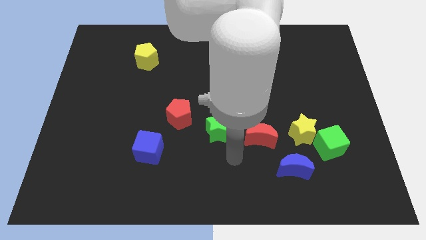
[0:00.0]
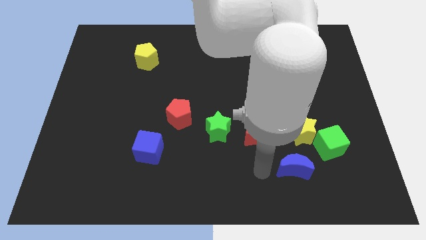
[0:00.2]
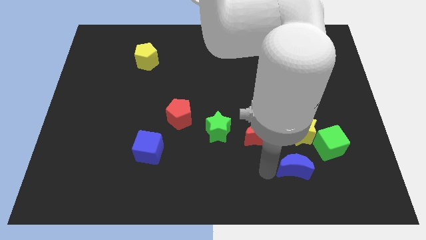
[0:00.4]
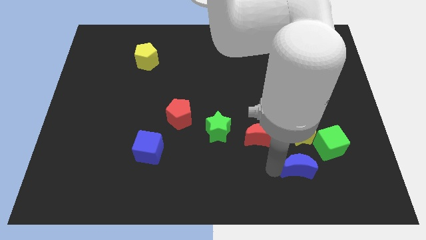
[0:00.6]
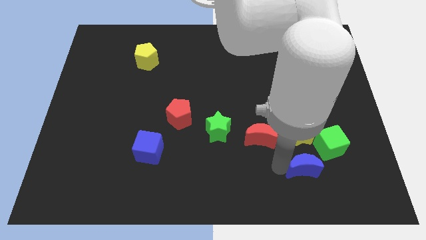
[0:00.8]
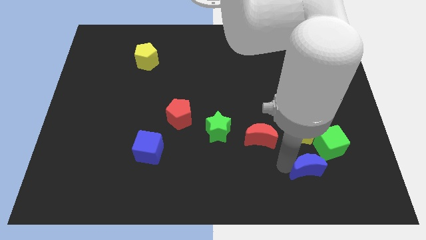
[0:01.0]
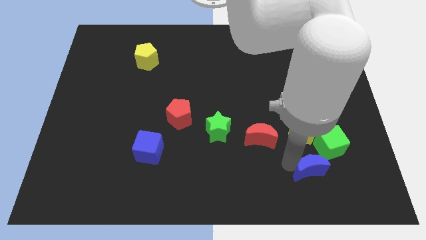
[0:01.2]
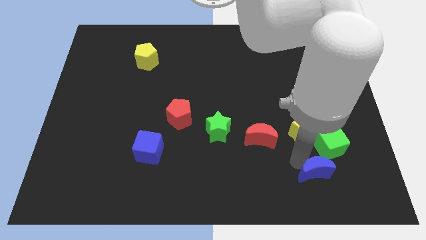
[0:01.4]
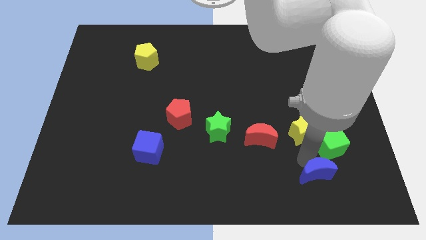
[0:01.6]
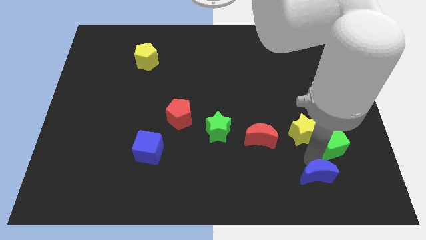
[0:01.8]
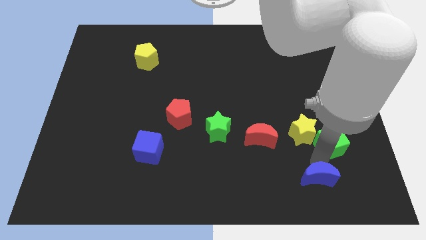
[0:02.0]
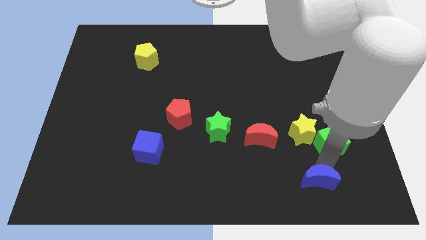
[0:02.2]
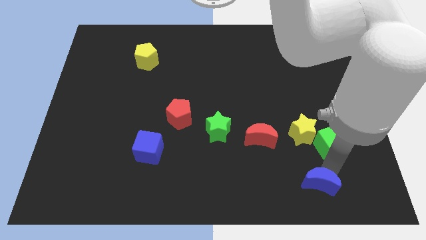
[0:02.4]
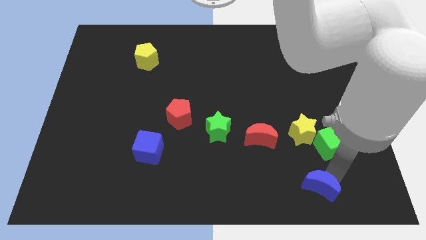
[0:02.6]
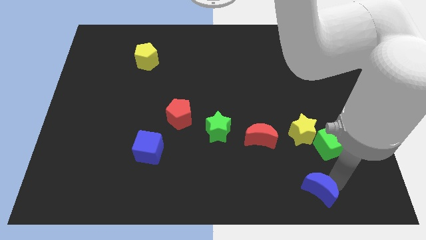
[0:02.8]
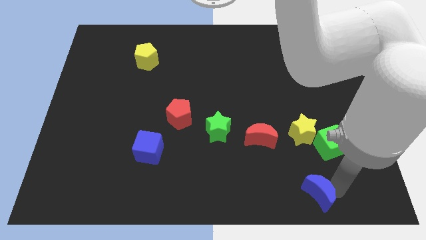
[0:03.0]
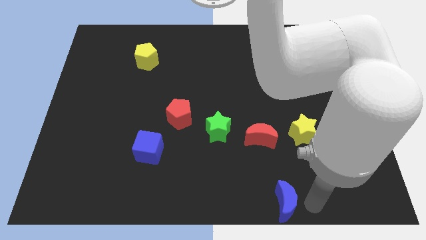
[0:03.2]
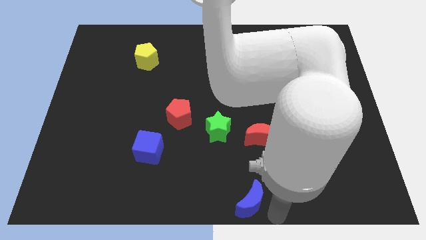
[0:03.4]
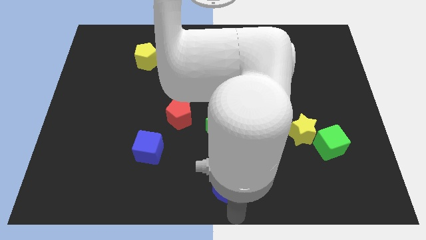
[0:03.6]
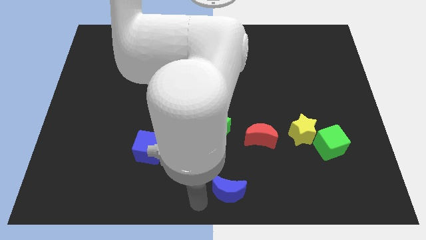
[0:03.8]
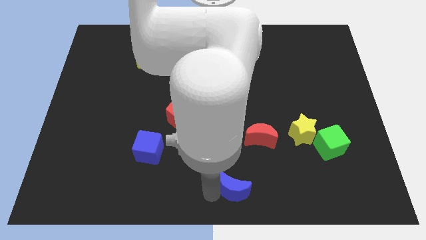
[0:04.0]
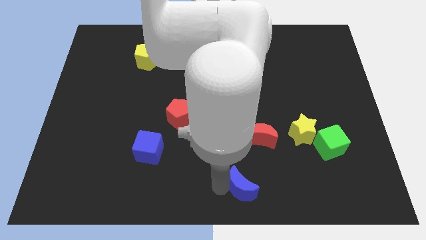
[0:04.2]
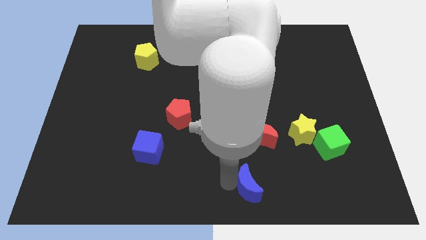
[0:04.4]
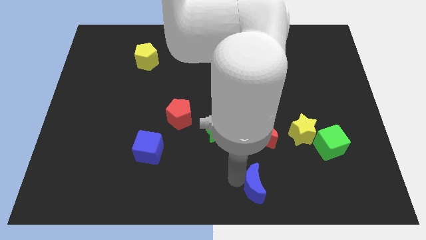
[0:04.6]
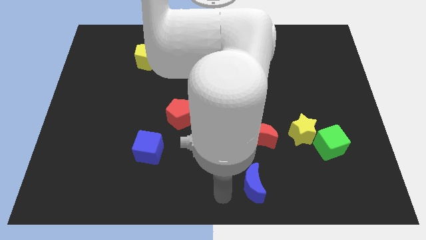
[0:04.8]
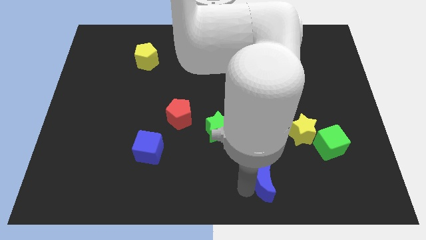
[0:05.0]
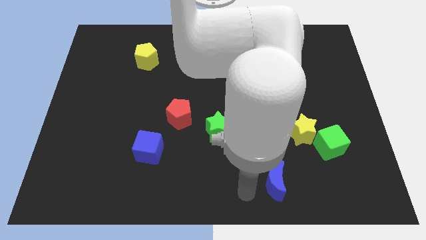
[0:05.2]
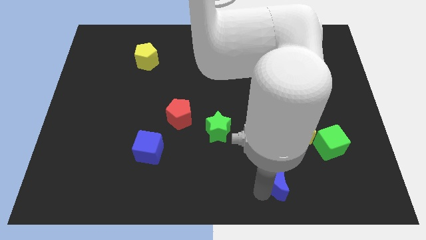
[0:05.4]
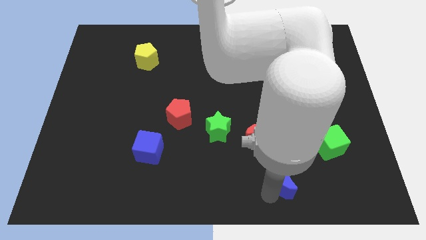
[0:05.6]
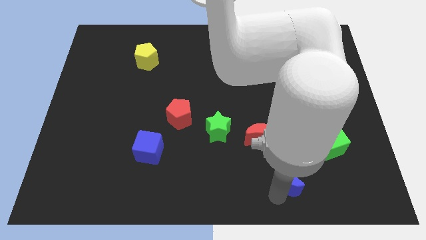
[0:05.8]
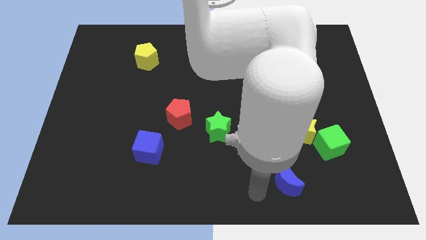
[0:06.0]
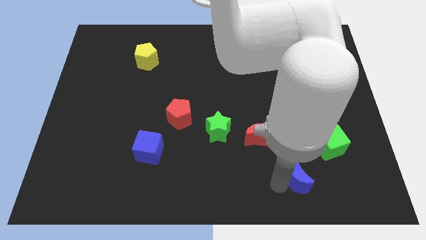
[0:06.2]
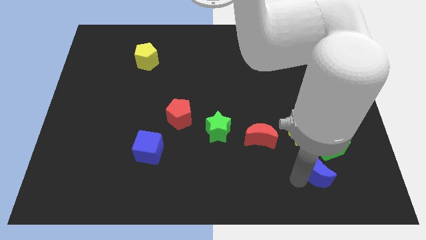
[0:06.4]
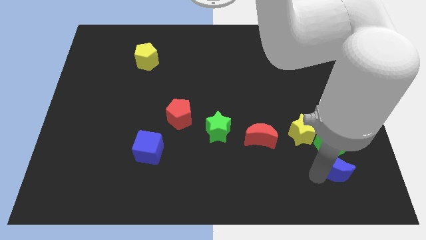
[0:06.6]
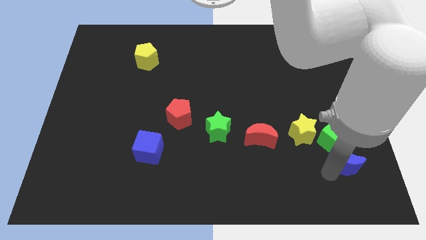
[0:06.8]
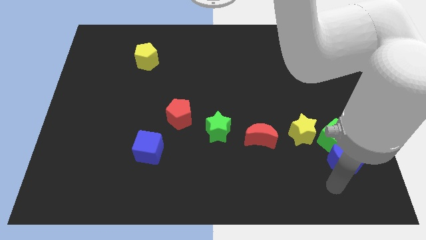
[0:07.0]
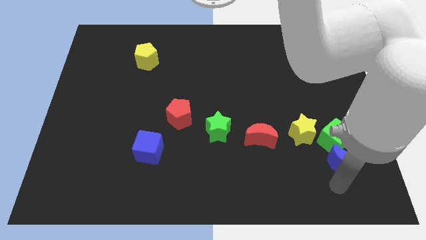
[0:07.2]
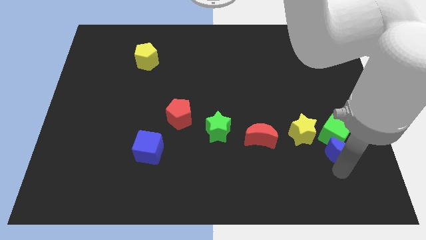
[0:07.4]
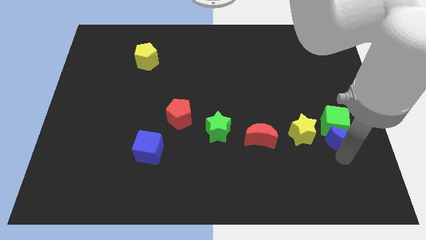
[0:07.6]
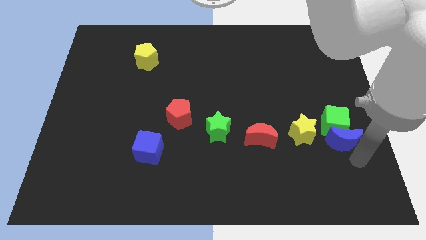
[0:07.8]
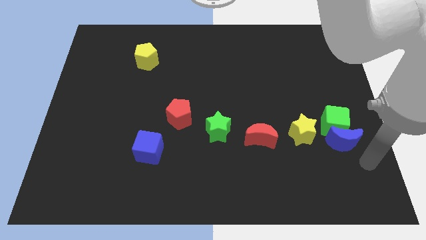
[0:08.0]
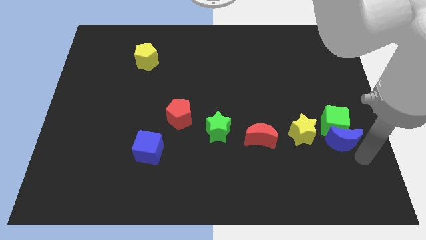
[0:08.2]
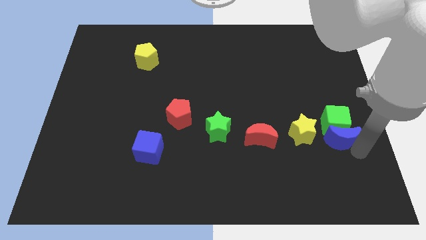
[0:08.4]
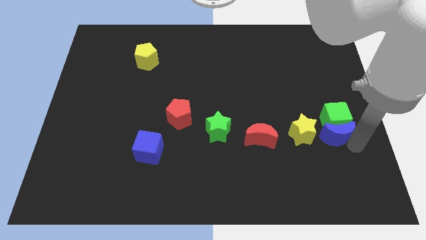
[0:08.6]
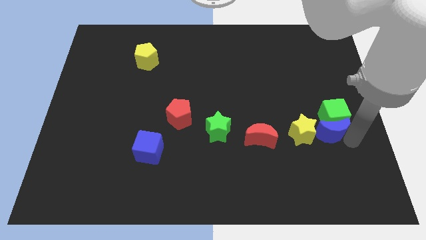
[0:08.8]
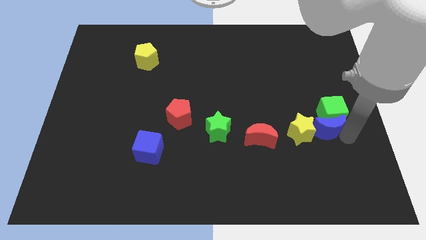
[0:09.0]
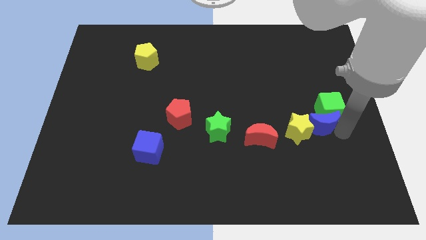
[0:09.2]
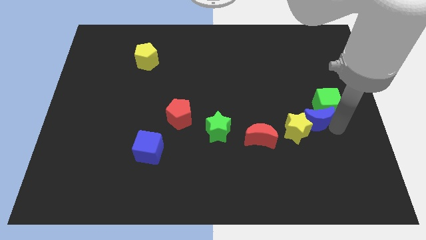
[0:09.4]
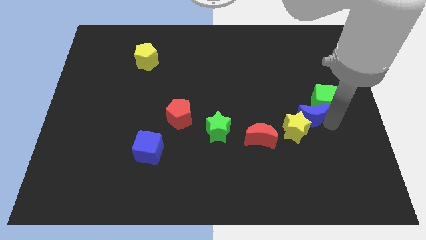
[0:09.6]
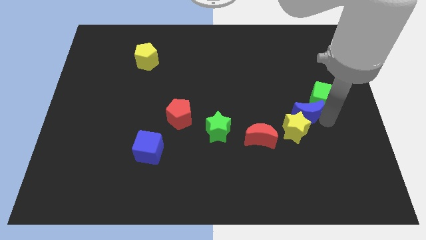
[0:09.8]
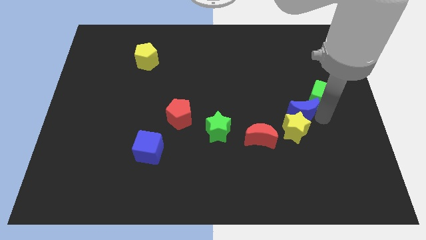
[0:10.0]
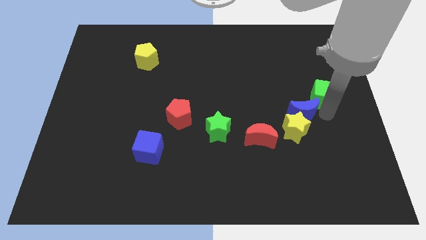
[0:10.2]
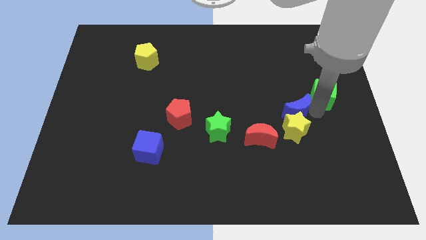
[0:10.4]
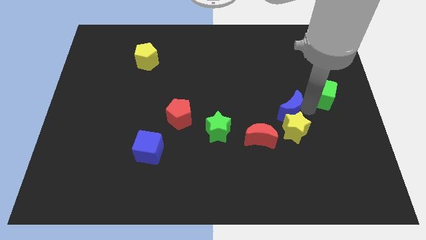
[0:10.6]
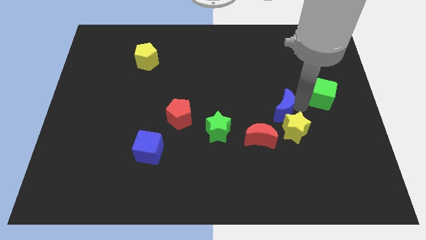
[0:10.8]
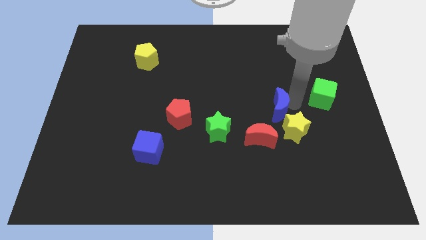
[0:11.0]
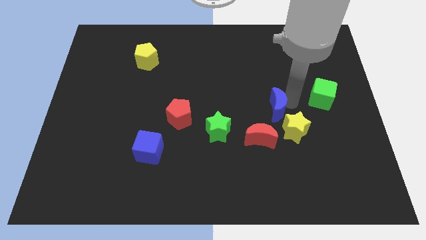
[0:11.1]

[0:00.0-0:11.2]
push the blue moon slightly upwards and to the left

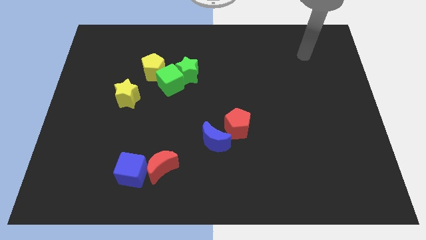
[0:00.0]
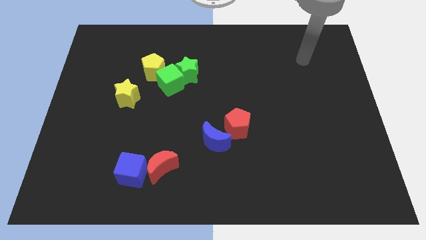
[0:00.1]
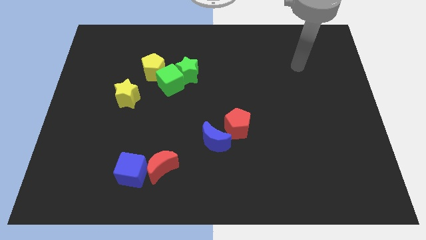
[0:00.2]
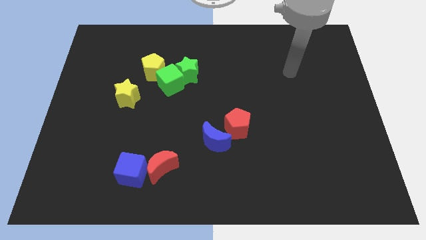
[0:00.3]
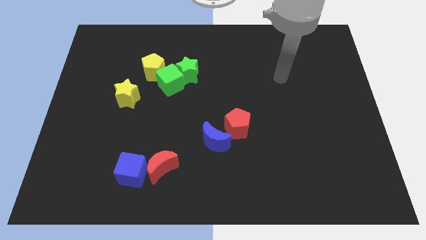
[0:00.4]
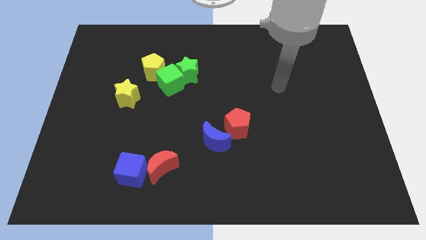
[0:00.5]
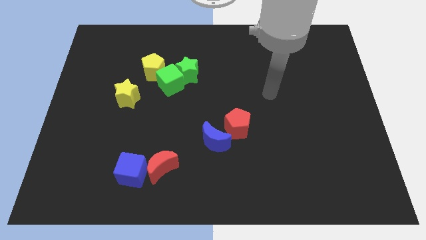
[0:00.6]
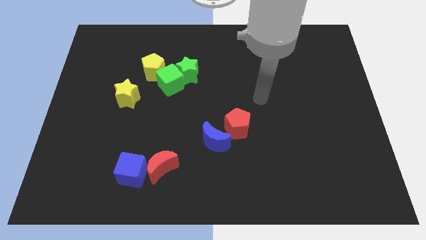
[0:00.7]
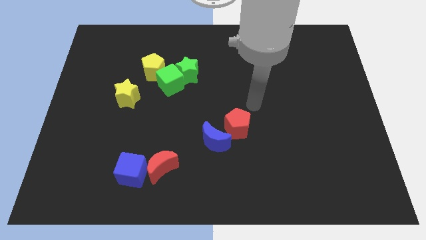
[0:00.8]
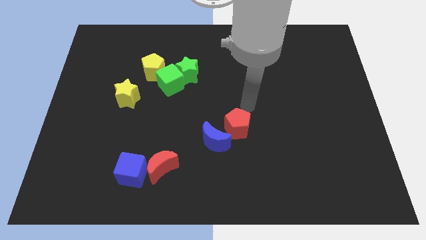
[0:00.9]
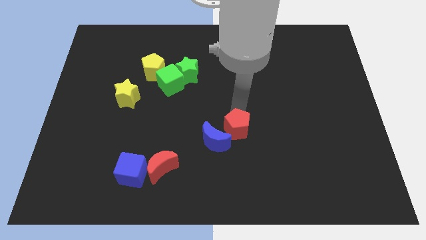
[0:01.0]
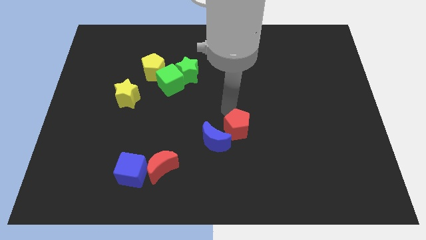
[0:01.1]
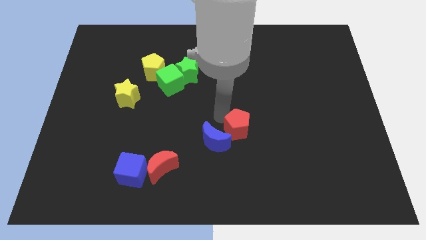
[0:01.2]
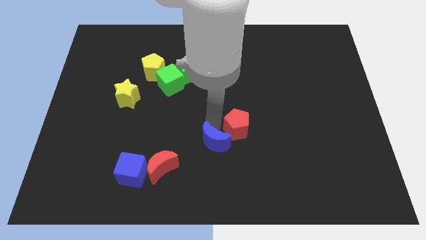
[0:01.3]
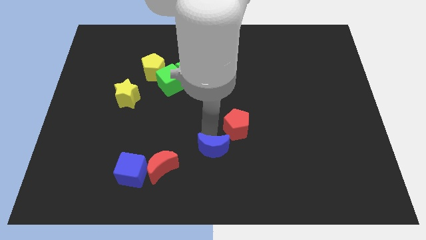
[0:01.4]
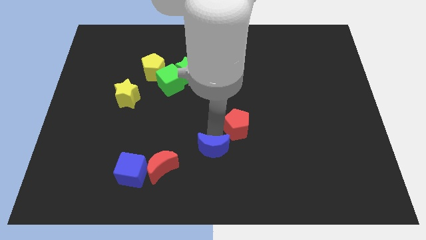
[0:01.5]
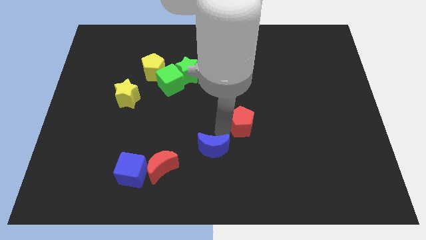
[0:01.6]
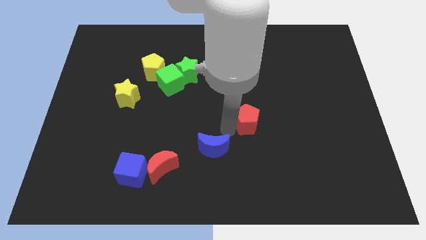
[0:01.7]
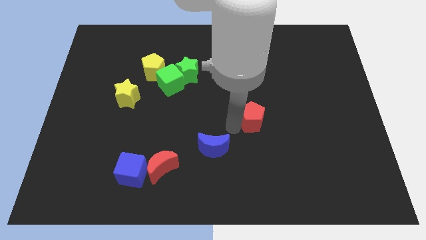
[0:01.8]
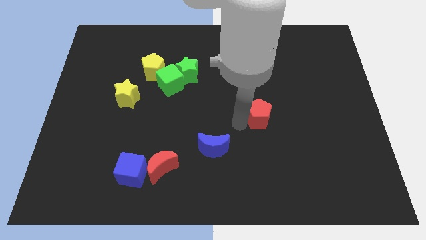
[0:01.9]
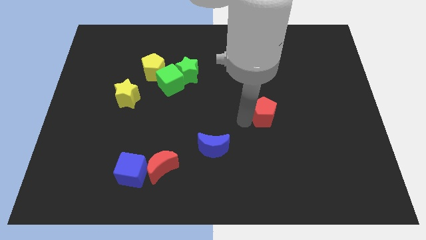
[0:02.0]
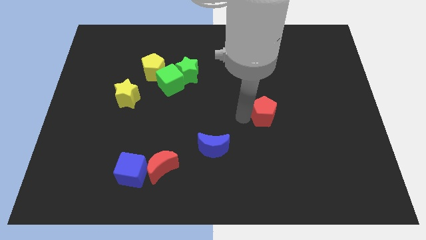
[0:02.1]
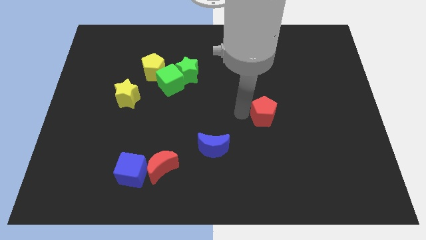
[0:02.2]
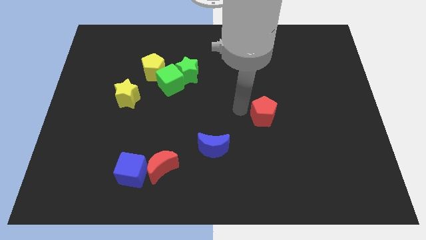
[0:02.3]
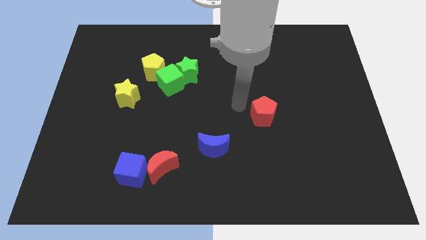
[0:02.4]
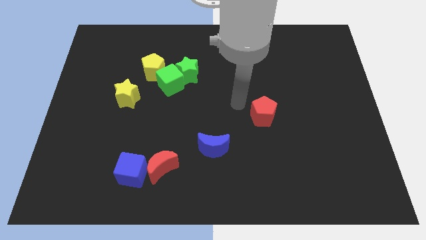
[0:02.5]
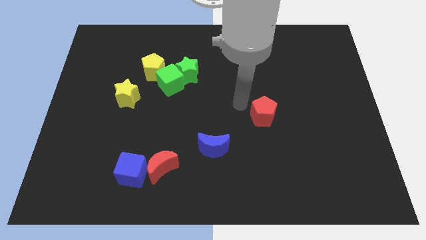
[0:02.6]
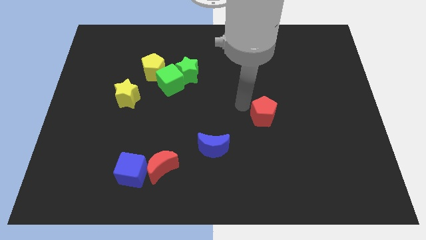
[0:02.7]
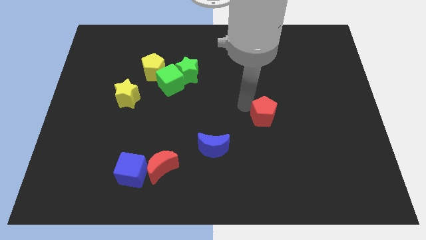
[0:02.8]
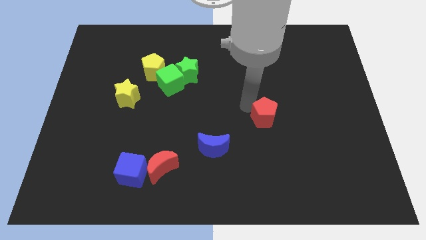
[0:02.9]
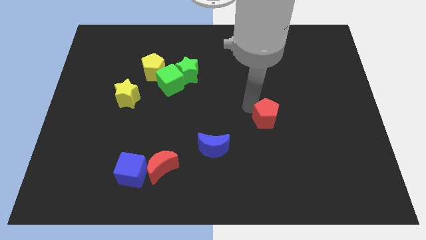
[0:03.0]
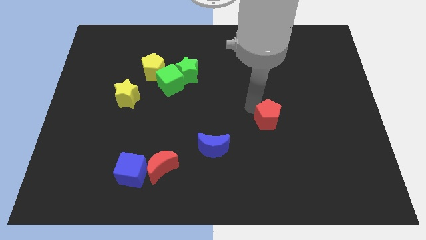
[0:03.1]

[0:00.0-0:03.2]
slightly push the red pentagon to the right
